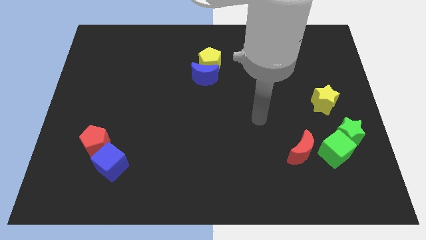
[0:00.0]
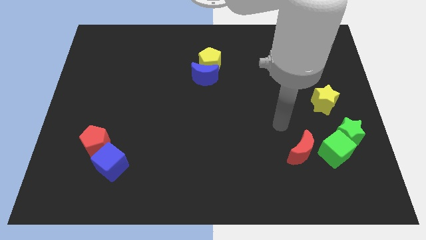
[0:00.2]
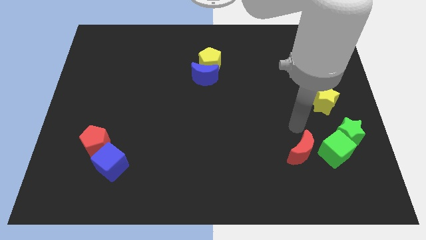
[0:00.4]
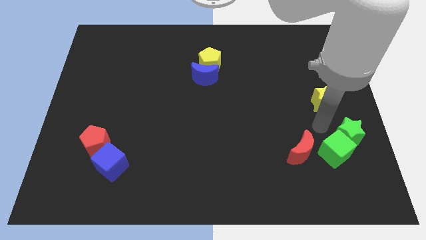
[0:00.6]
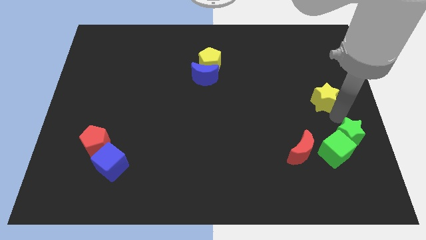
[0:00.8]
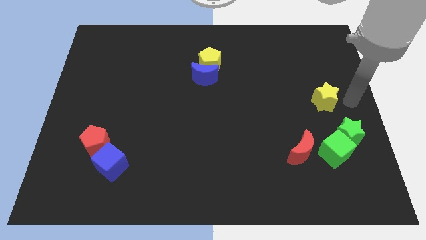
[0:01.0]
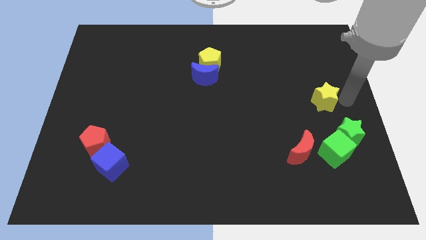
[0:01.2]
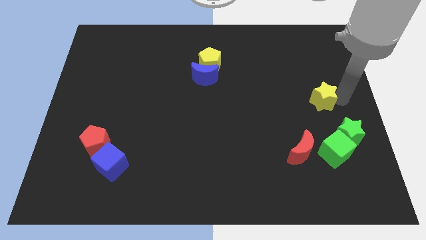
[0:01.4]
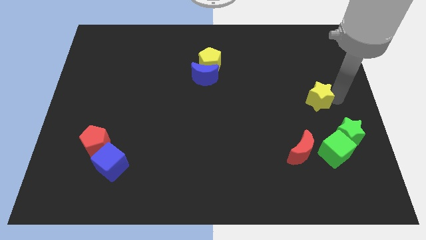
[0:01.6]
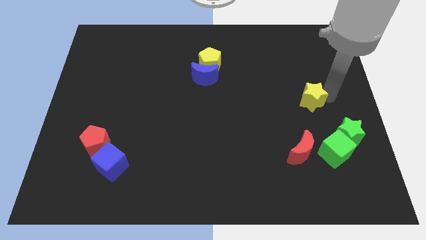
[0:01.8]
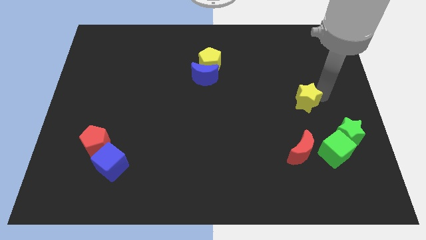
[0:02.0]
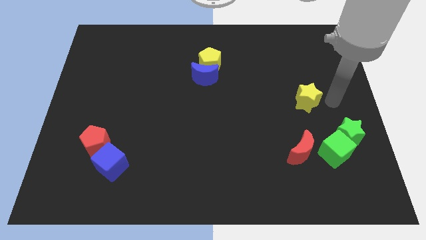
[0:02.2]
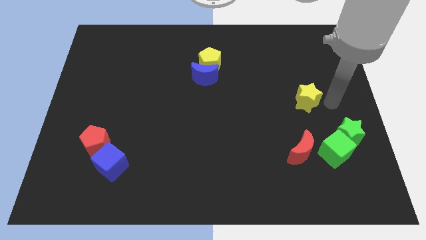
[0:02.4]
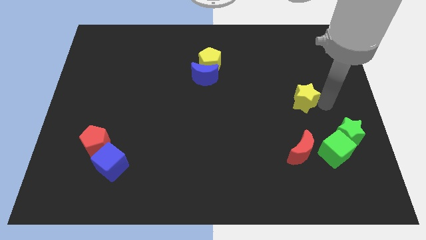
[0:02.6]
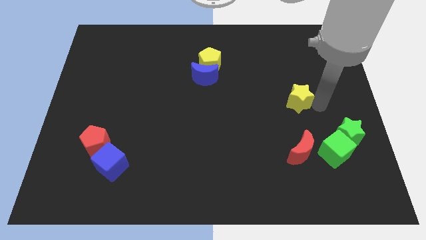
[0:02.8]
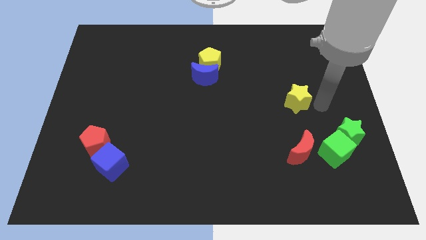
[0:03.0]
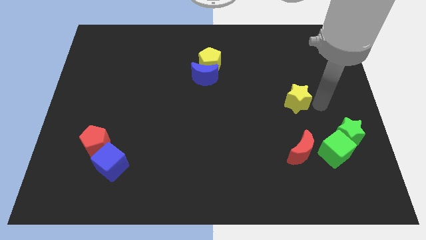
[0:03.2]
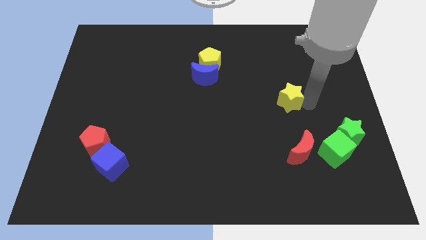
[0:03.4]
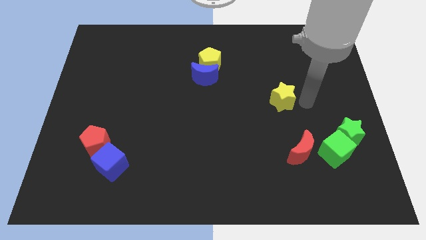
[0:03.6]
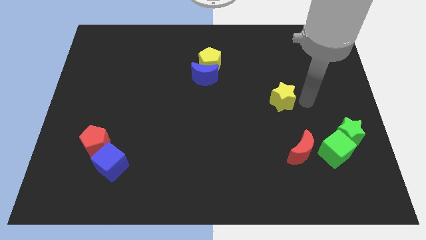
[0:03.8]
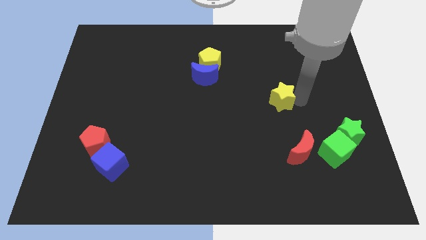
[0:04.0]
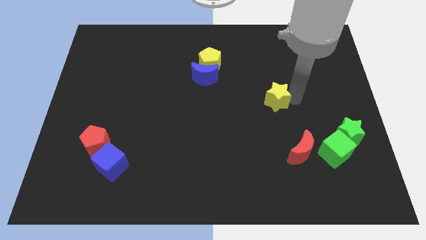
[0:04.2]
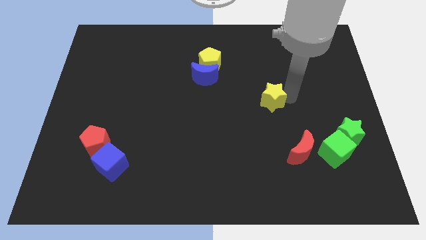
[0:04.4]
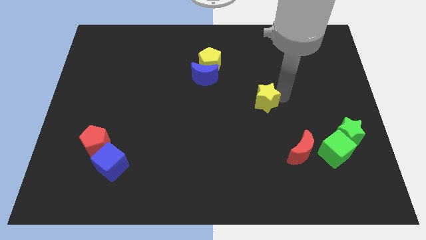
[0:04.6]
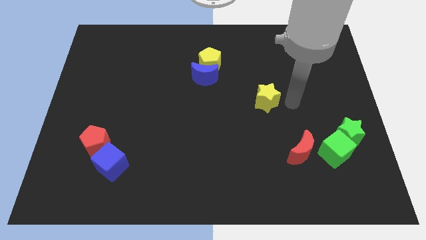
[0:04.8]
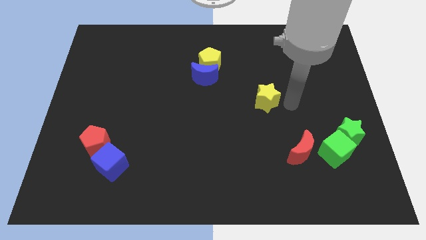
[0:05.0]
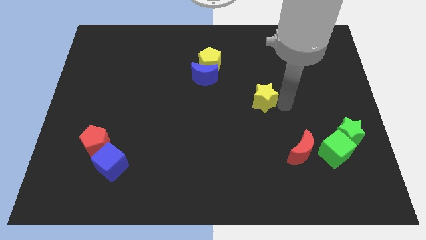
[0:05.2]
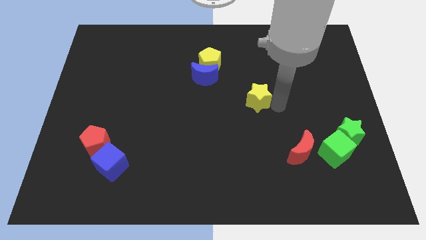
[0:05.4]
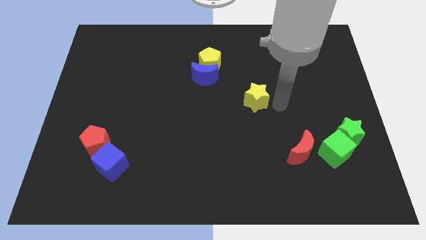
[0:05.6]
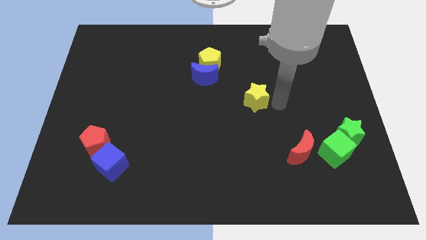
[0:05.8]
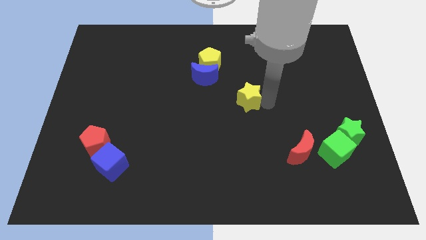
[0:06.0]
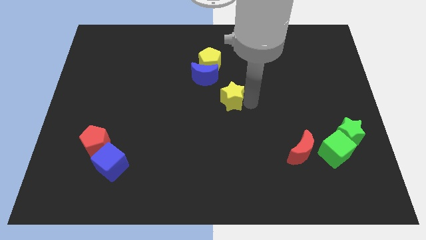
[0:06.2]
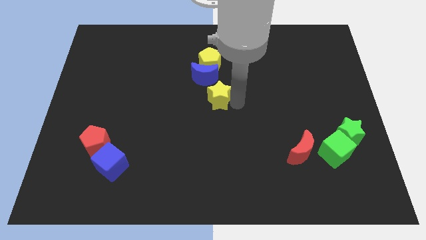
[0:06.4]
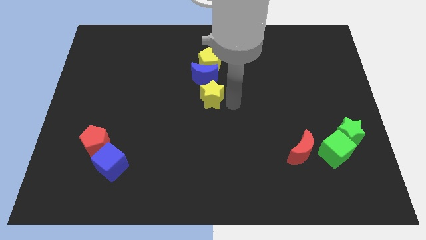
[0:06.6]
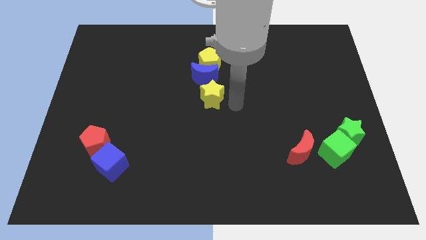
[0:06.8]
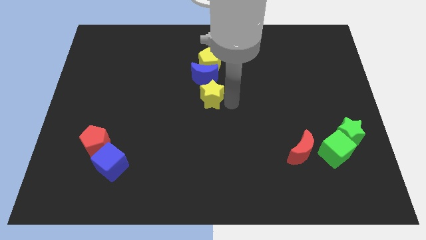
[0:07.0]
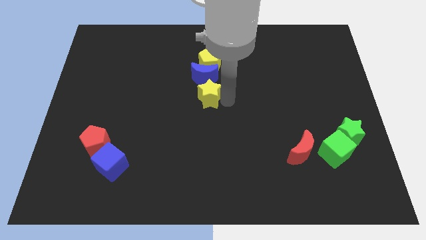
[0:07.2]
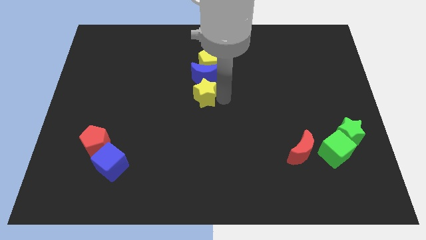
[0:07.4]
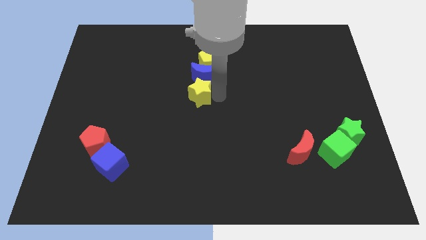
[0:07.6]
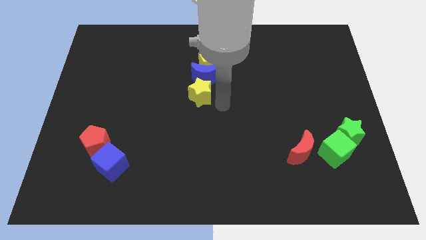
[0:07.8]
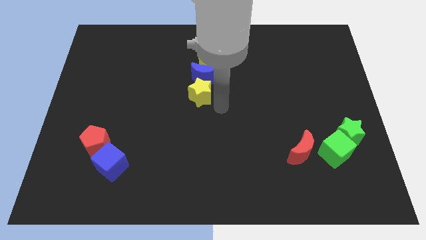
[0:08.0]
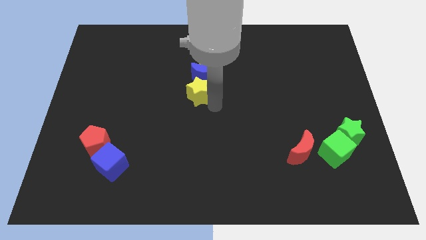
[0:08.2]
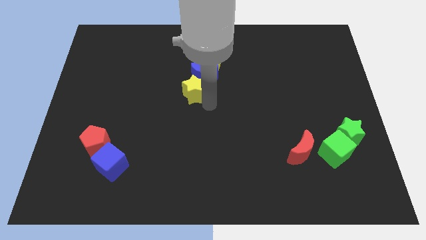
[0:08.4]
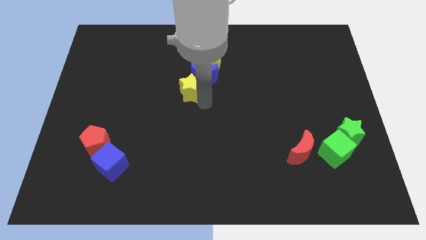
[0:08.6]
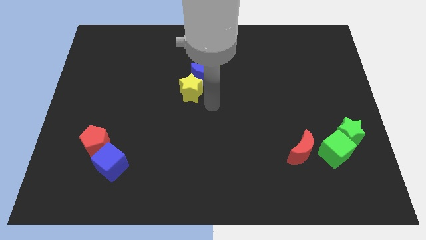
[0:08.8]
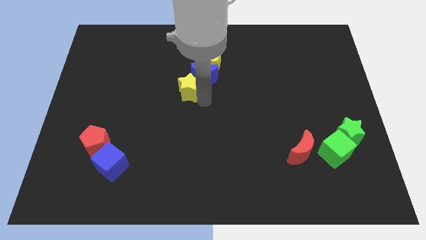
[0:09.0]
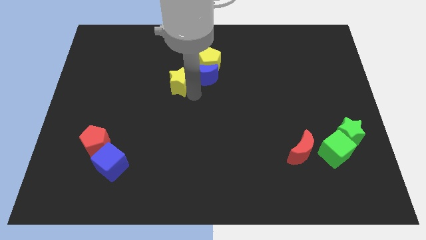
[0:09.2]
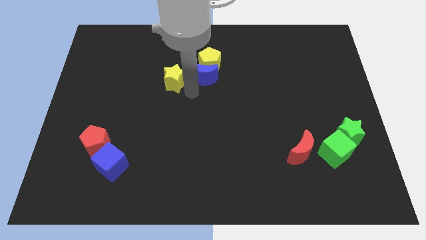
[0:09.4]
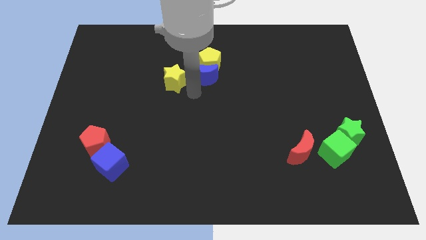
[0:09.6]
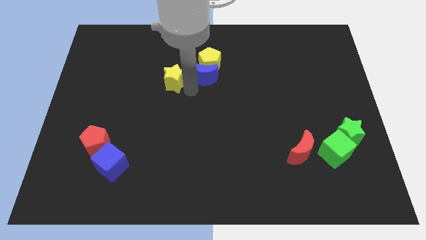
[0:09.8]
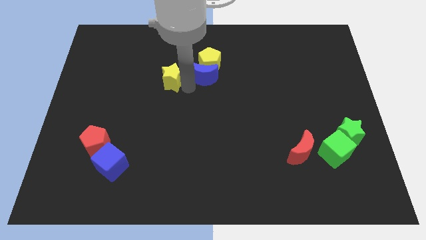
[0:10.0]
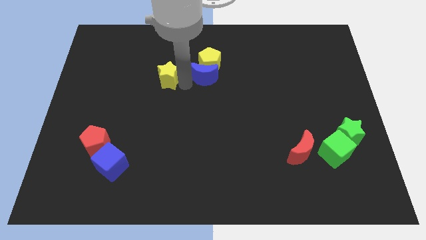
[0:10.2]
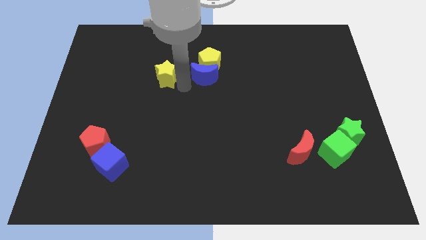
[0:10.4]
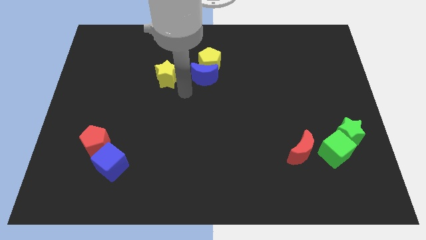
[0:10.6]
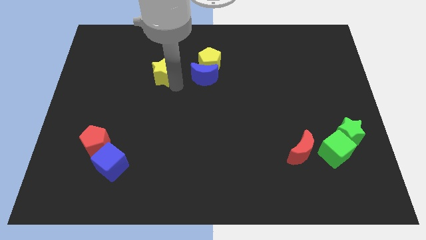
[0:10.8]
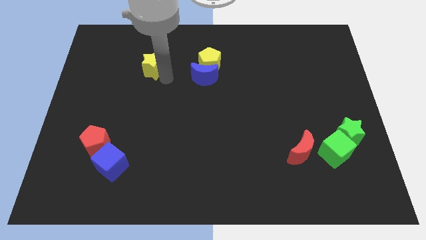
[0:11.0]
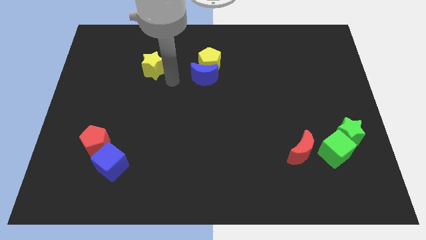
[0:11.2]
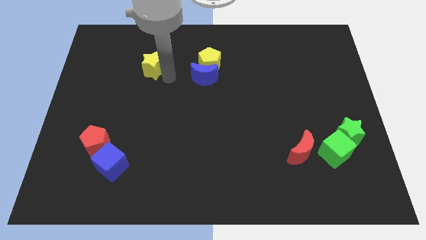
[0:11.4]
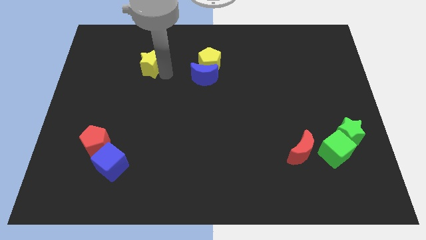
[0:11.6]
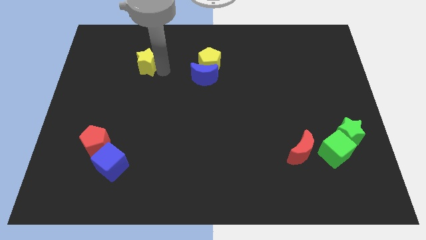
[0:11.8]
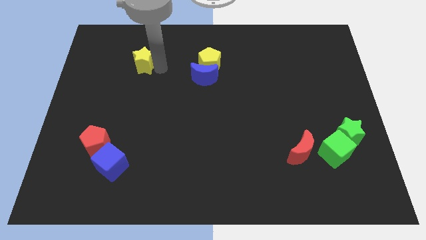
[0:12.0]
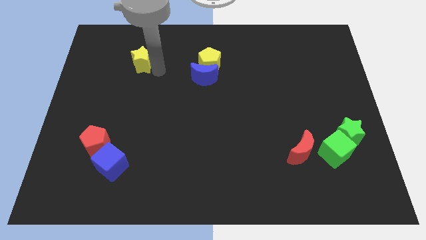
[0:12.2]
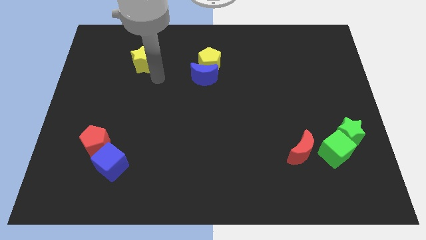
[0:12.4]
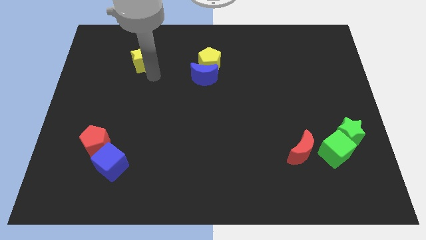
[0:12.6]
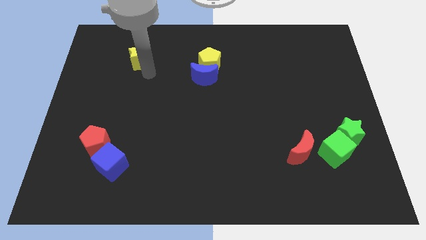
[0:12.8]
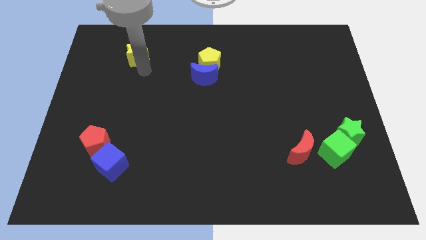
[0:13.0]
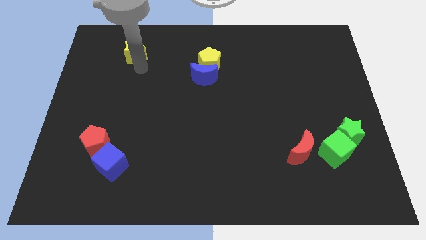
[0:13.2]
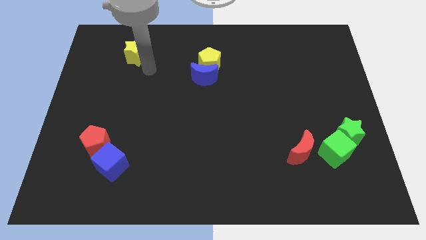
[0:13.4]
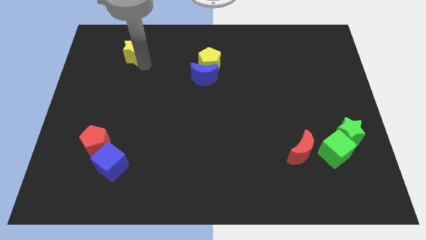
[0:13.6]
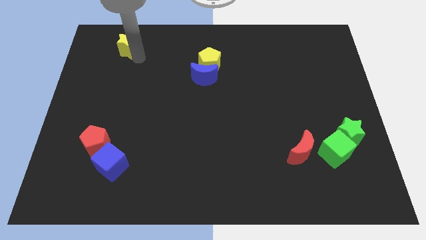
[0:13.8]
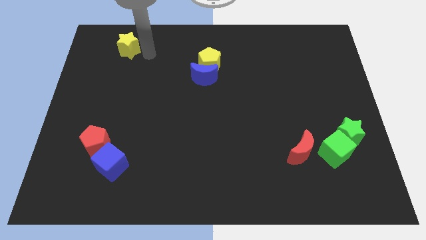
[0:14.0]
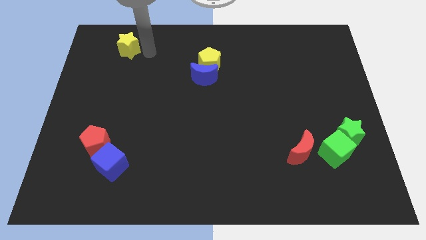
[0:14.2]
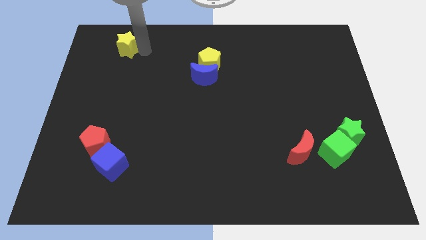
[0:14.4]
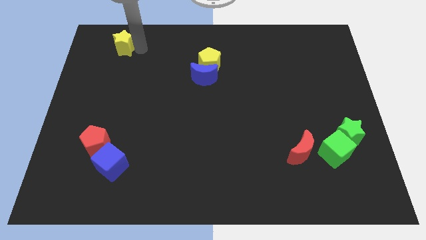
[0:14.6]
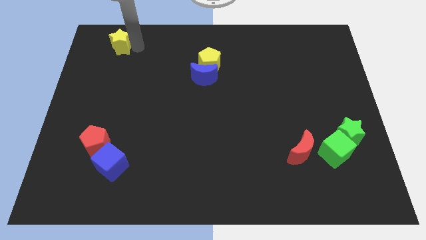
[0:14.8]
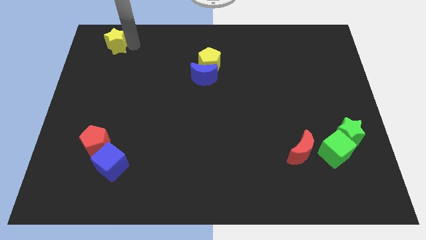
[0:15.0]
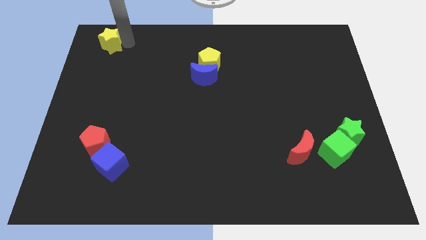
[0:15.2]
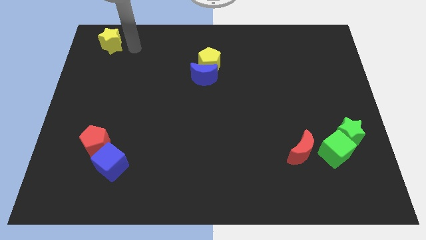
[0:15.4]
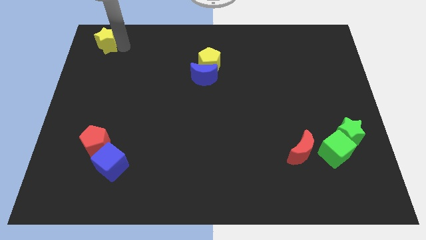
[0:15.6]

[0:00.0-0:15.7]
push the yellow star to the top left corner
